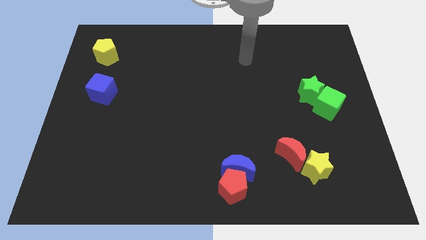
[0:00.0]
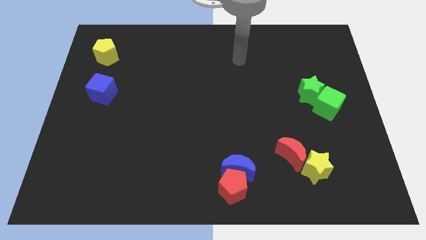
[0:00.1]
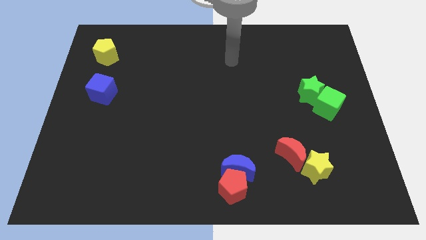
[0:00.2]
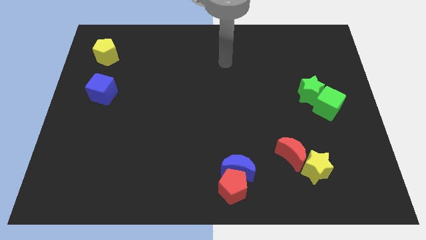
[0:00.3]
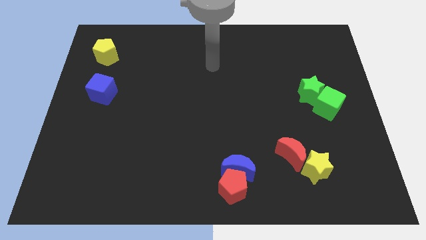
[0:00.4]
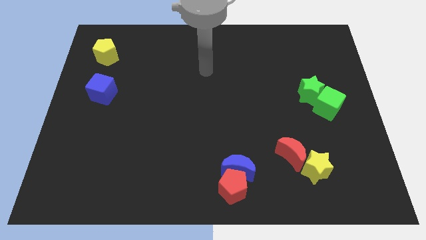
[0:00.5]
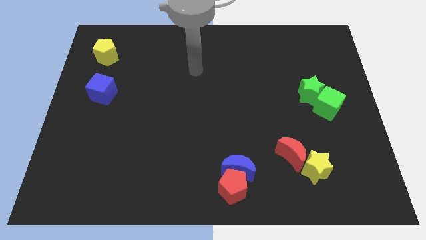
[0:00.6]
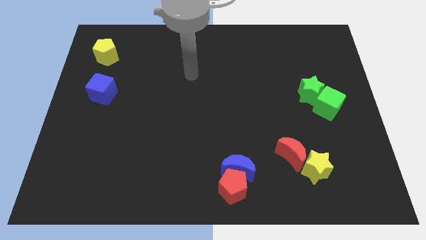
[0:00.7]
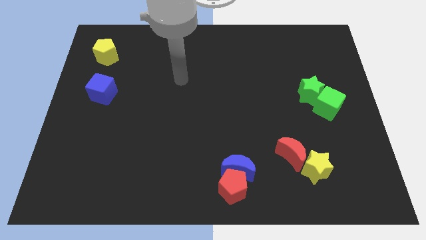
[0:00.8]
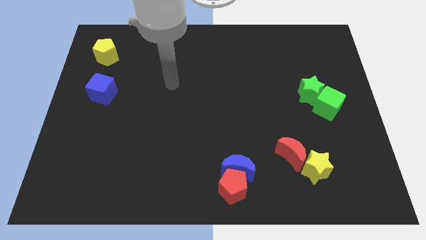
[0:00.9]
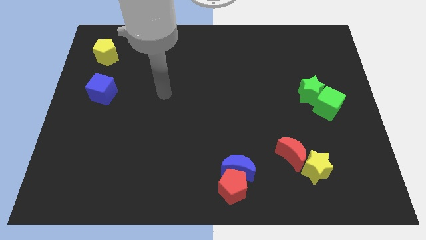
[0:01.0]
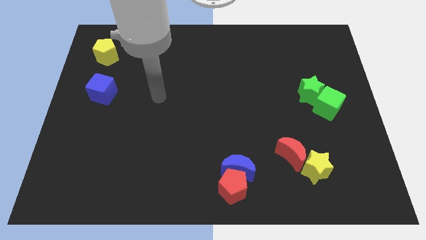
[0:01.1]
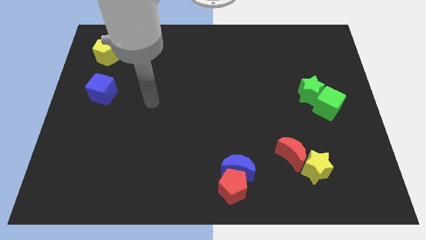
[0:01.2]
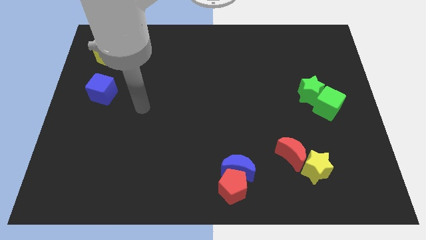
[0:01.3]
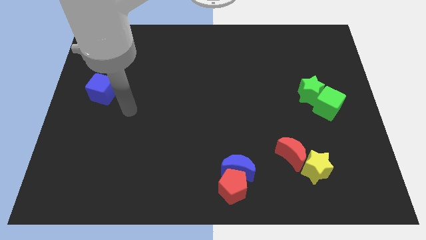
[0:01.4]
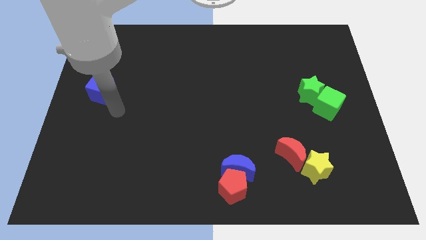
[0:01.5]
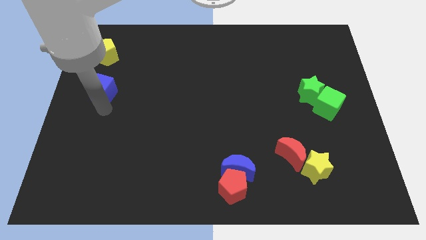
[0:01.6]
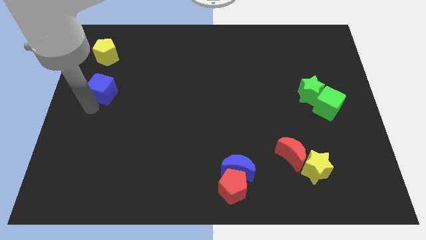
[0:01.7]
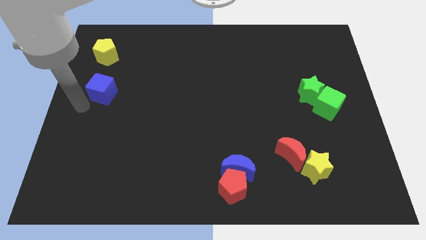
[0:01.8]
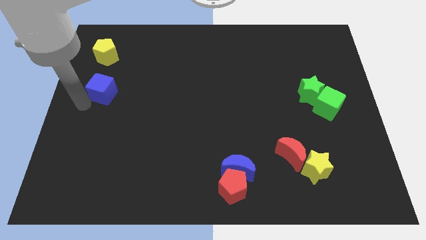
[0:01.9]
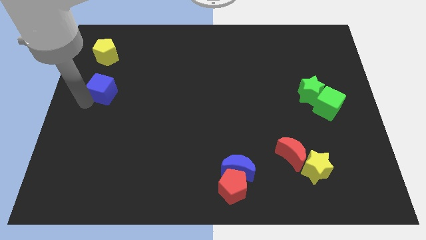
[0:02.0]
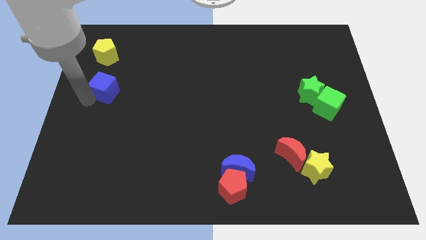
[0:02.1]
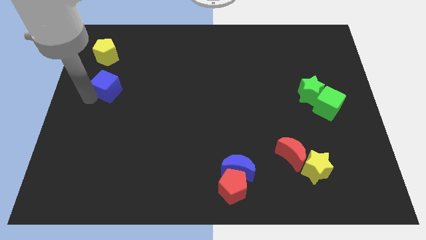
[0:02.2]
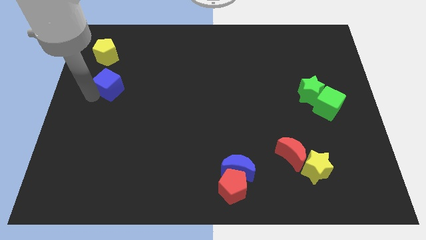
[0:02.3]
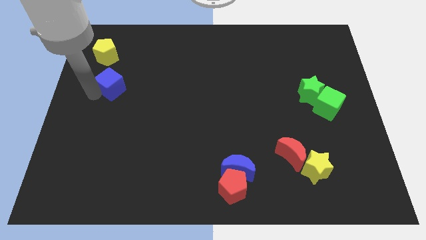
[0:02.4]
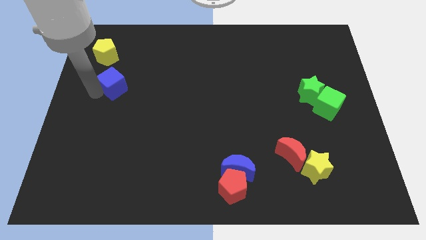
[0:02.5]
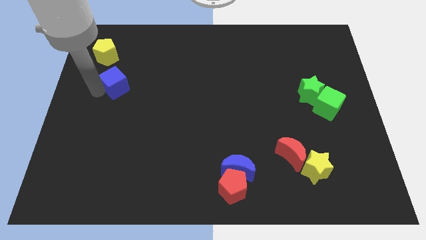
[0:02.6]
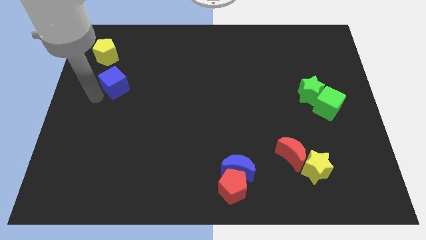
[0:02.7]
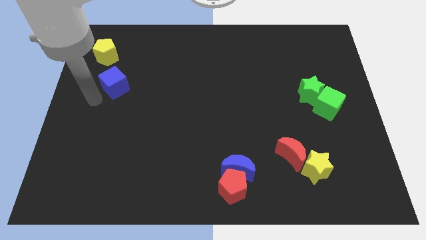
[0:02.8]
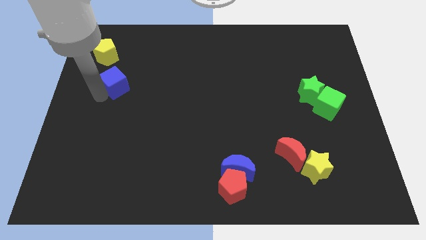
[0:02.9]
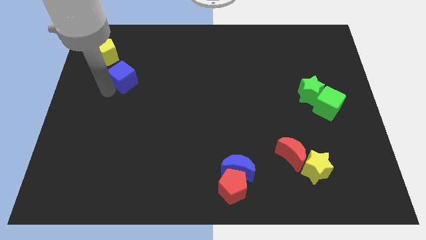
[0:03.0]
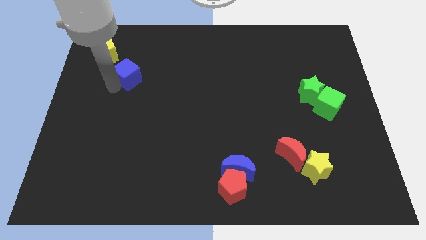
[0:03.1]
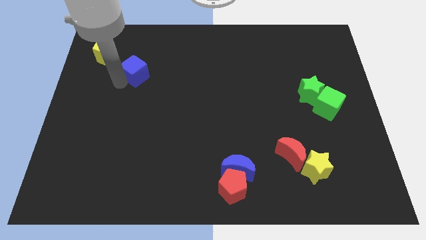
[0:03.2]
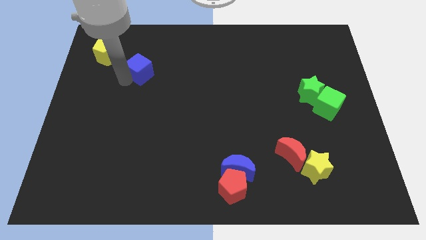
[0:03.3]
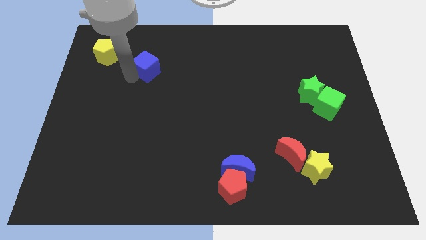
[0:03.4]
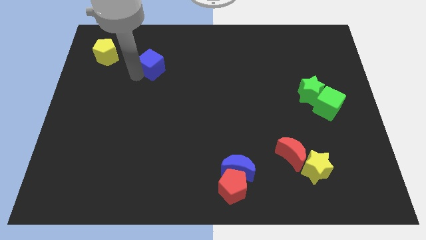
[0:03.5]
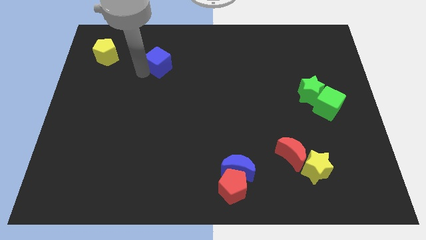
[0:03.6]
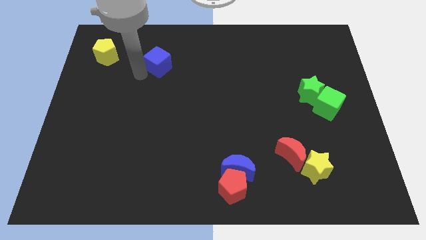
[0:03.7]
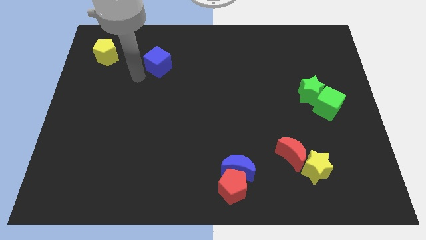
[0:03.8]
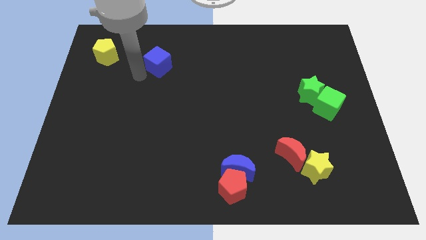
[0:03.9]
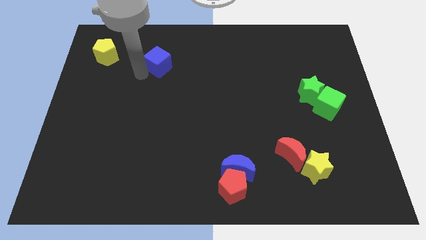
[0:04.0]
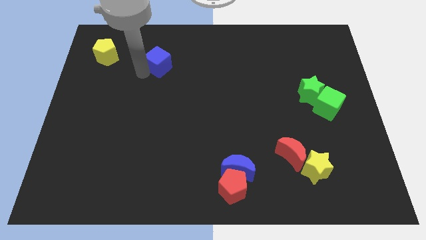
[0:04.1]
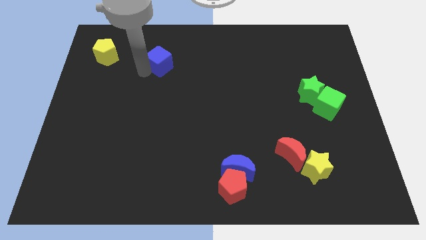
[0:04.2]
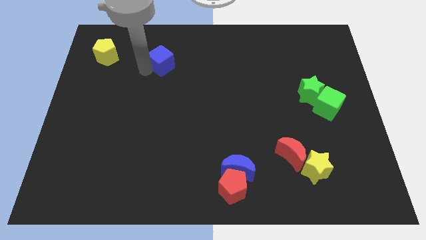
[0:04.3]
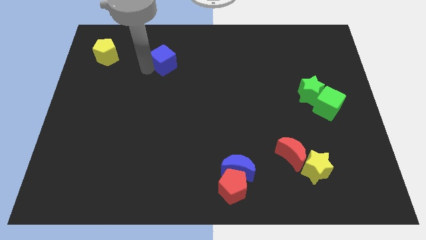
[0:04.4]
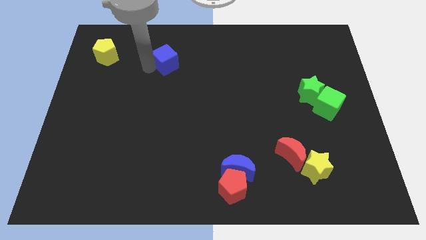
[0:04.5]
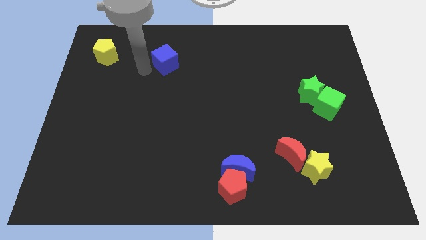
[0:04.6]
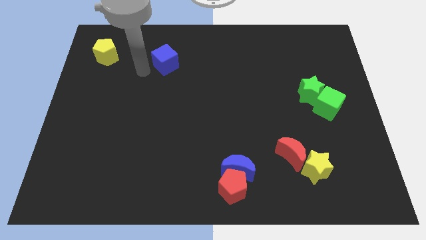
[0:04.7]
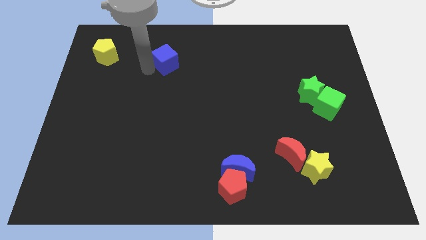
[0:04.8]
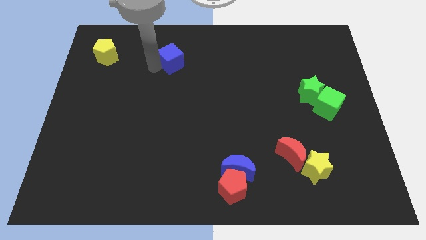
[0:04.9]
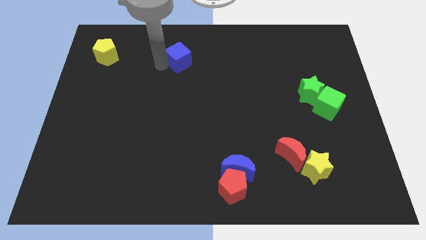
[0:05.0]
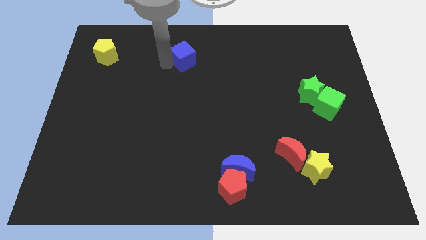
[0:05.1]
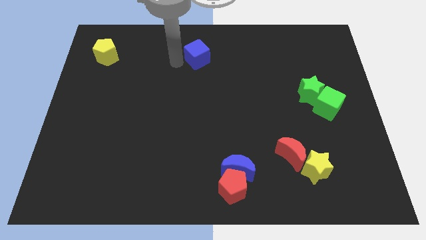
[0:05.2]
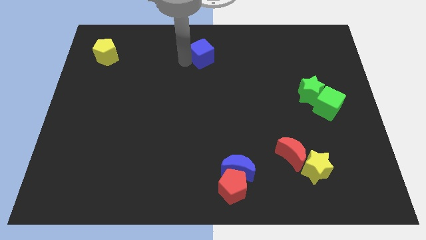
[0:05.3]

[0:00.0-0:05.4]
put the blue cube to the top side

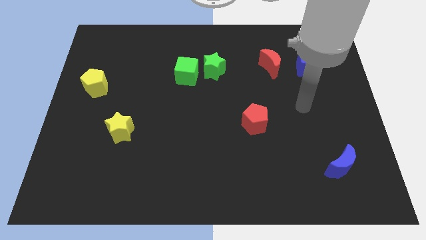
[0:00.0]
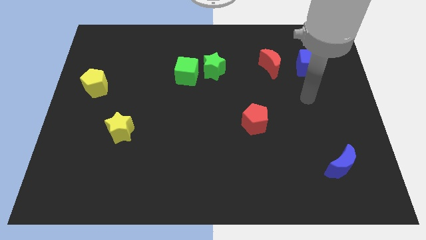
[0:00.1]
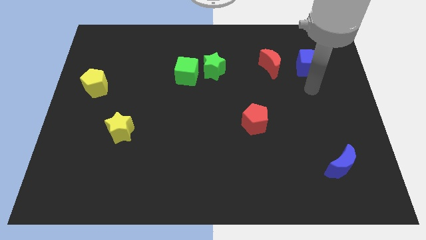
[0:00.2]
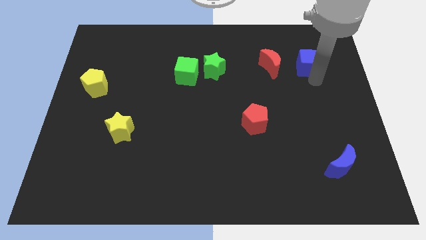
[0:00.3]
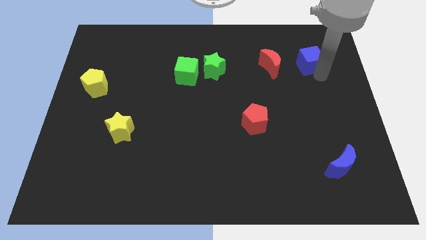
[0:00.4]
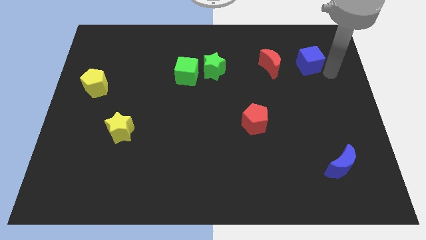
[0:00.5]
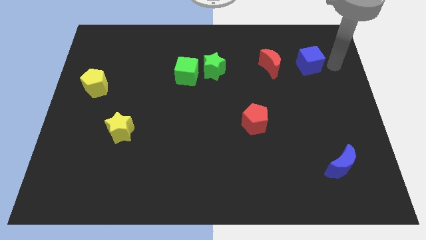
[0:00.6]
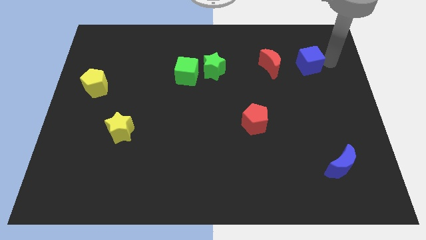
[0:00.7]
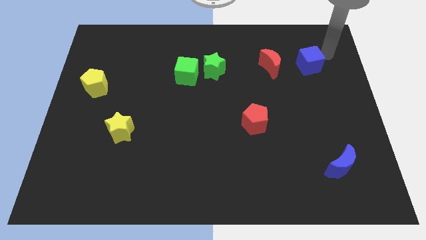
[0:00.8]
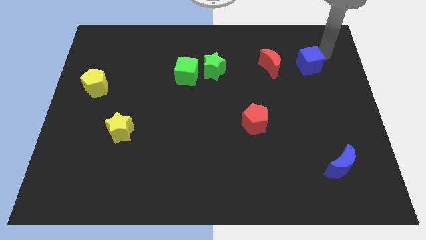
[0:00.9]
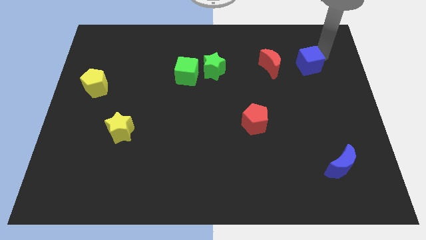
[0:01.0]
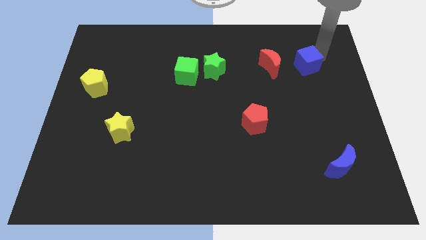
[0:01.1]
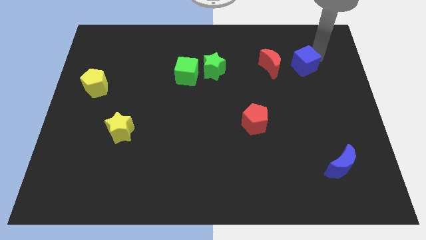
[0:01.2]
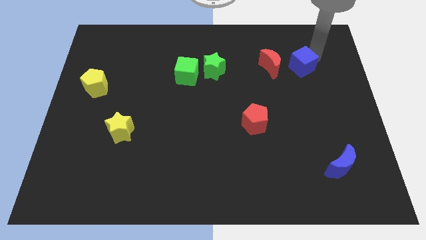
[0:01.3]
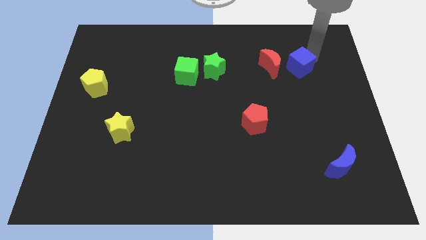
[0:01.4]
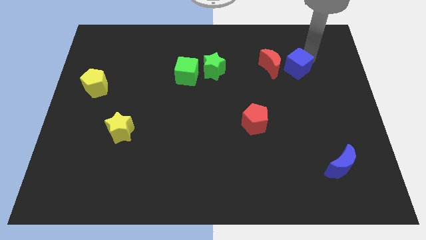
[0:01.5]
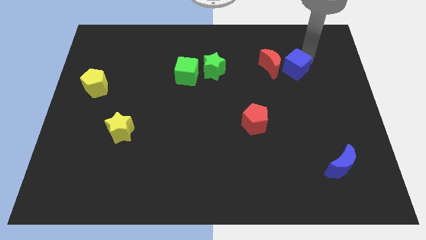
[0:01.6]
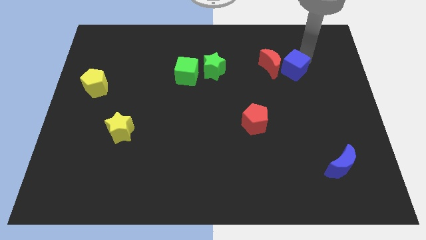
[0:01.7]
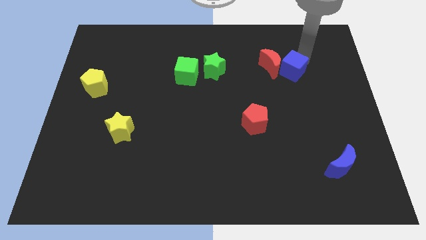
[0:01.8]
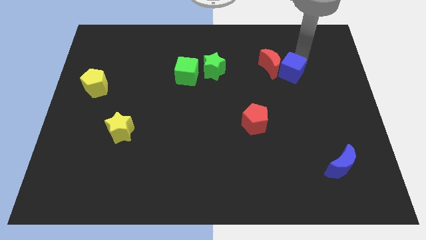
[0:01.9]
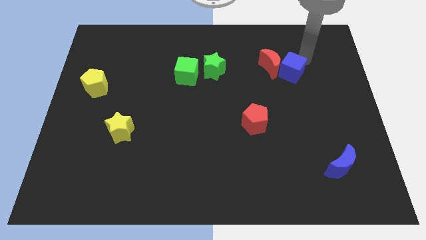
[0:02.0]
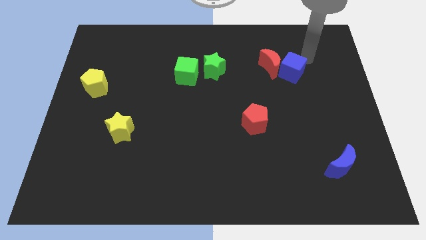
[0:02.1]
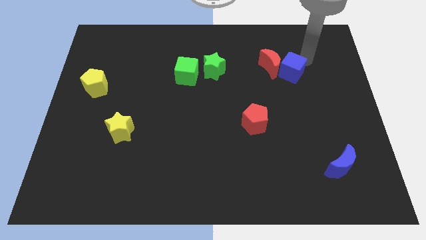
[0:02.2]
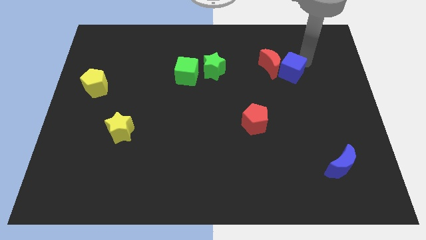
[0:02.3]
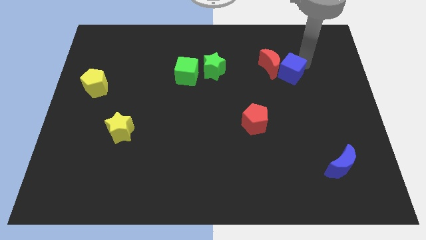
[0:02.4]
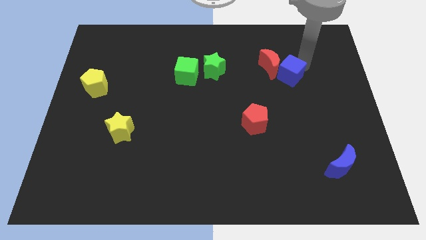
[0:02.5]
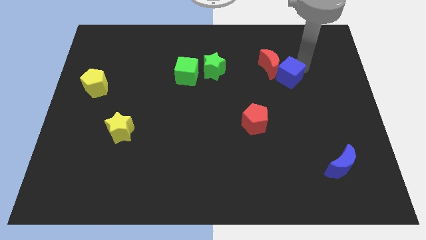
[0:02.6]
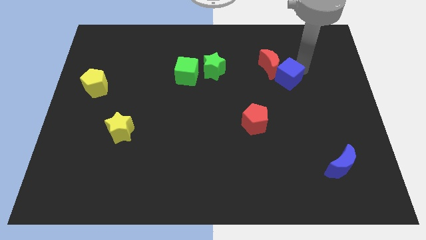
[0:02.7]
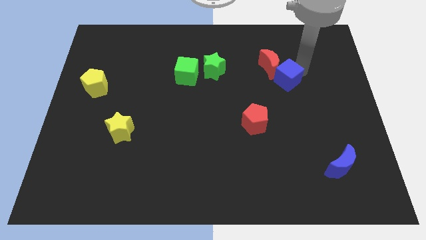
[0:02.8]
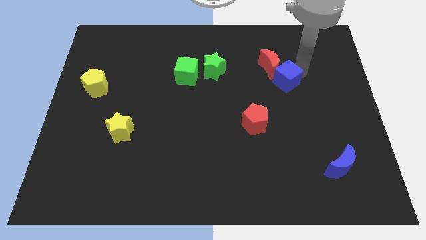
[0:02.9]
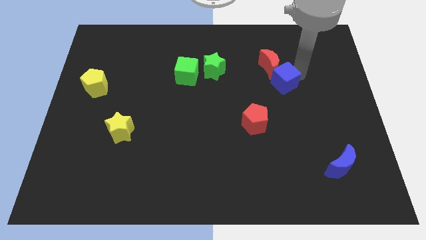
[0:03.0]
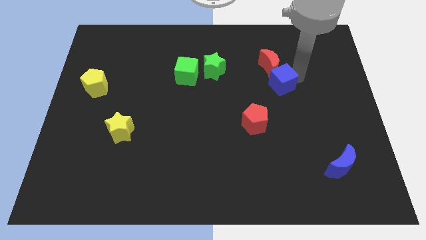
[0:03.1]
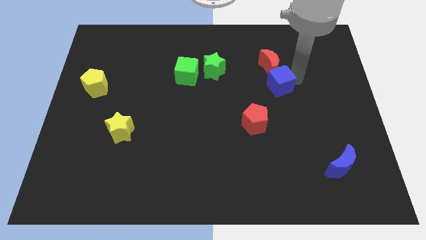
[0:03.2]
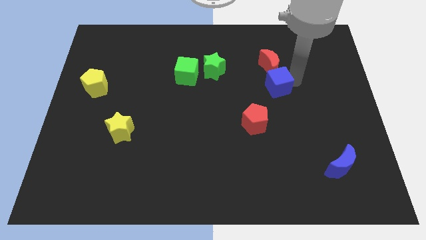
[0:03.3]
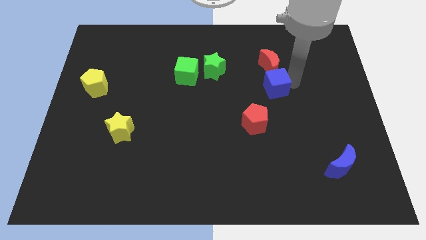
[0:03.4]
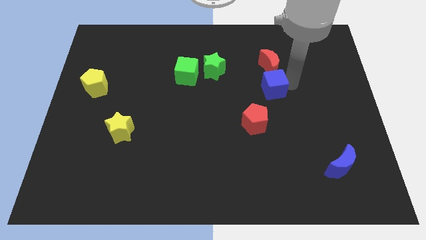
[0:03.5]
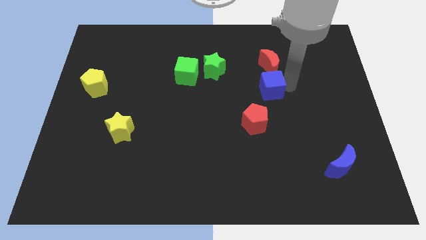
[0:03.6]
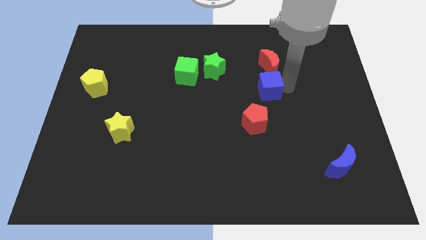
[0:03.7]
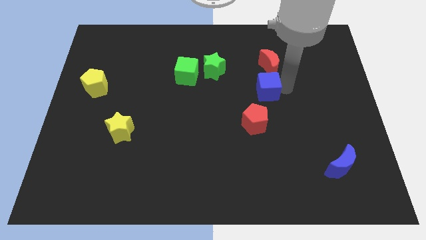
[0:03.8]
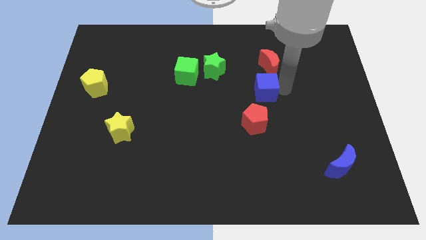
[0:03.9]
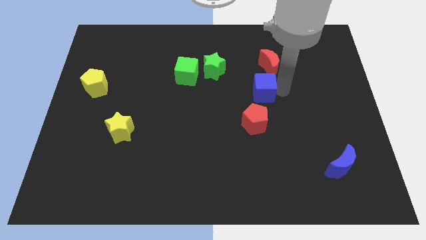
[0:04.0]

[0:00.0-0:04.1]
push the blue cube to the center
